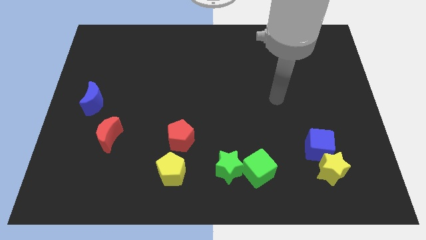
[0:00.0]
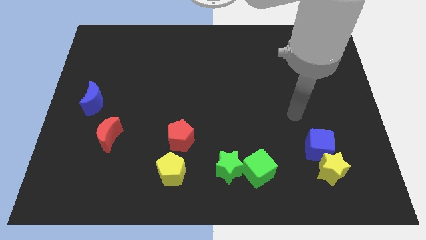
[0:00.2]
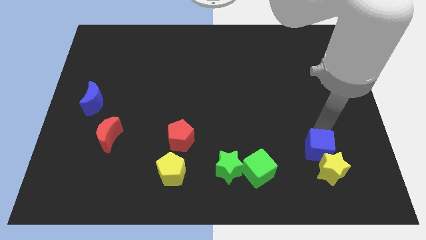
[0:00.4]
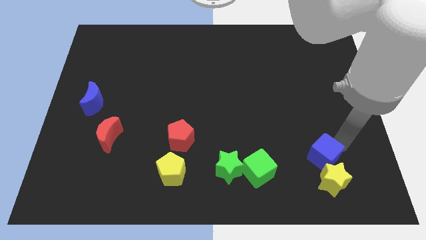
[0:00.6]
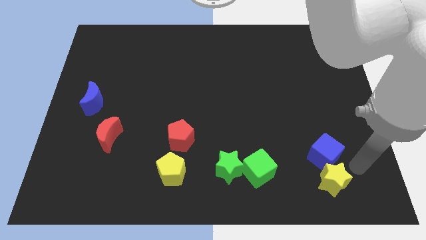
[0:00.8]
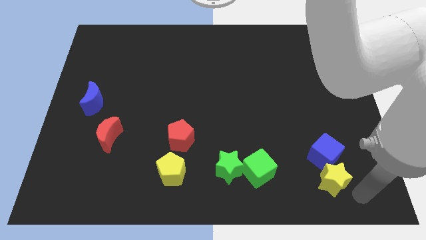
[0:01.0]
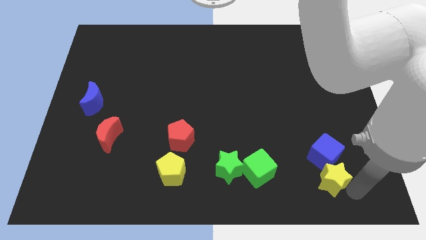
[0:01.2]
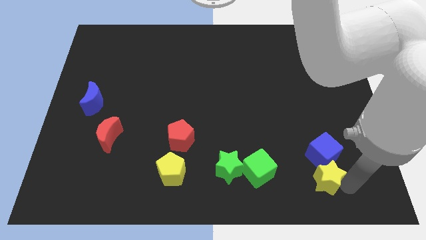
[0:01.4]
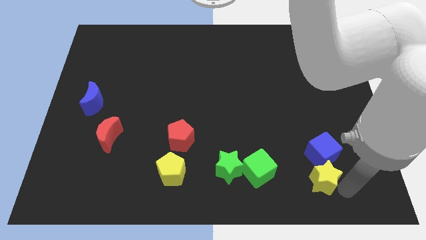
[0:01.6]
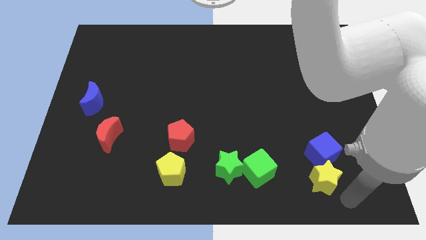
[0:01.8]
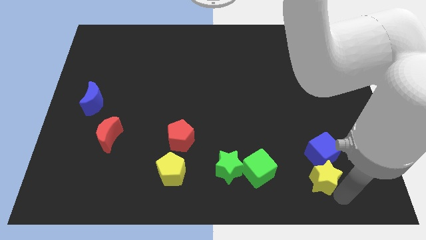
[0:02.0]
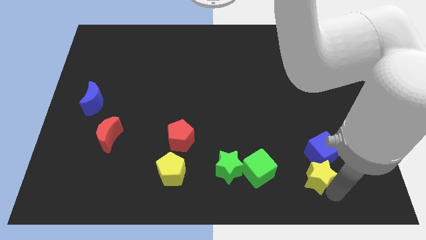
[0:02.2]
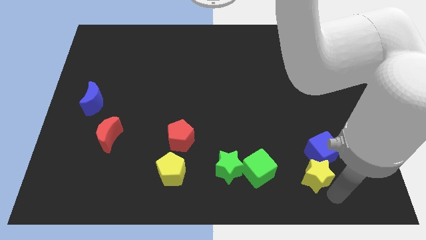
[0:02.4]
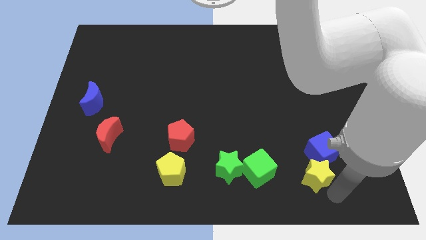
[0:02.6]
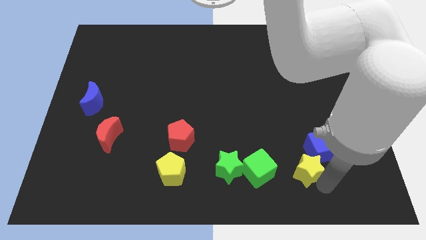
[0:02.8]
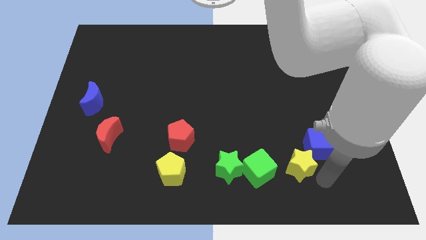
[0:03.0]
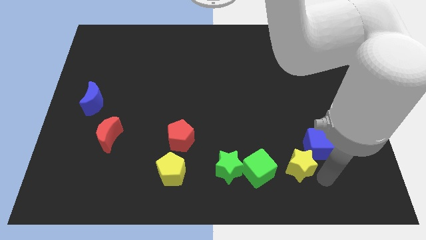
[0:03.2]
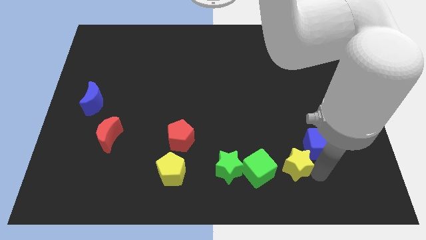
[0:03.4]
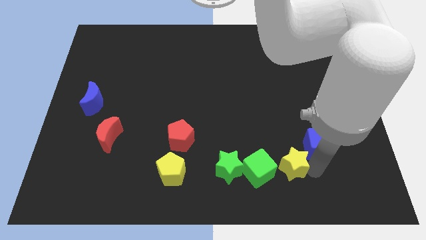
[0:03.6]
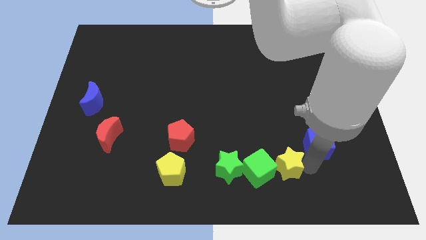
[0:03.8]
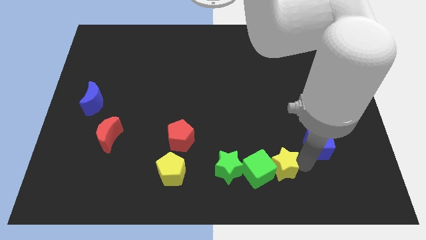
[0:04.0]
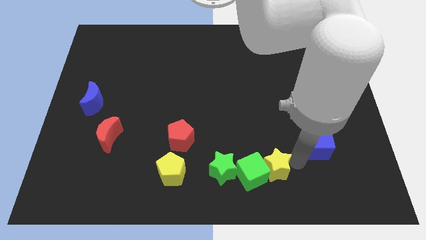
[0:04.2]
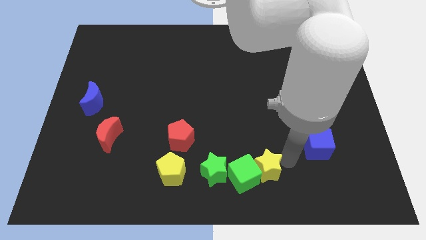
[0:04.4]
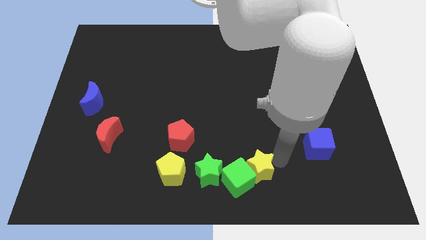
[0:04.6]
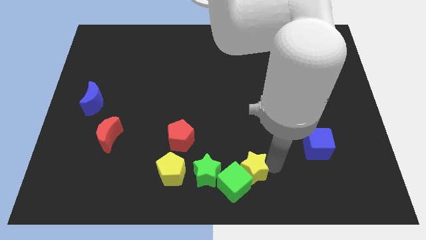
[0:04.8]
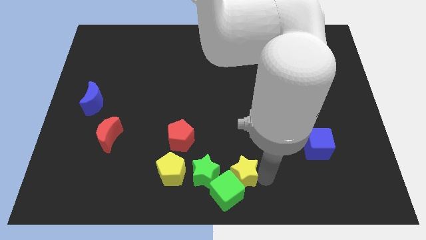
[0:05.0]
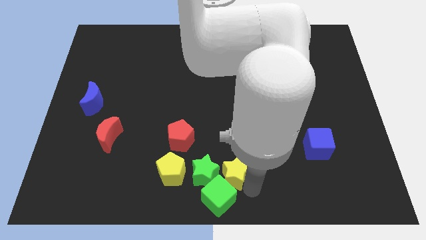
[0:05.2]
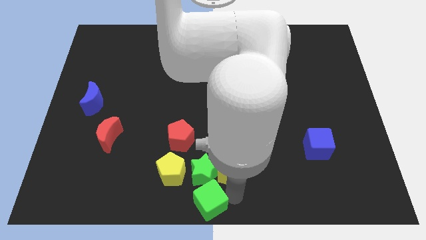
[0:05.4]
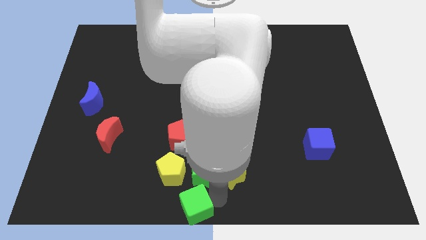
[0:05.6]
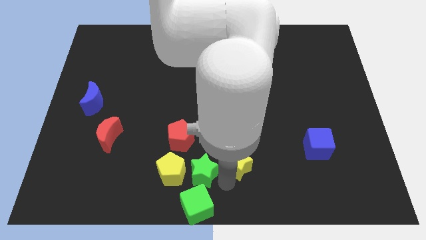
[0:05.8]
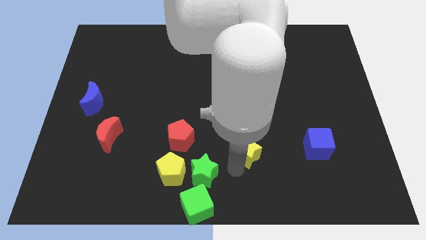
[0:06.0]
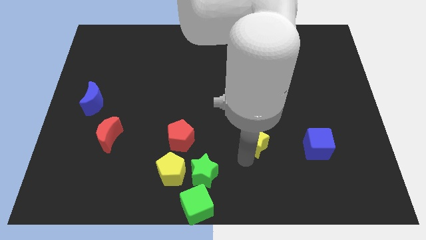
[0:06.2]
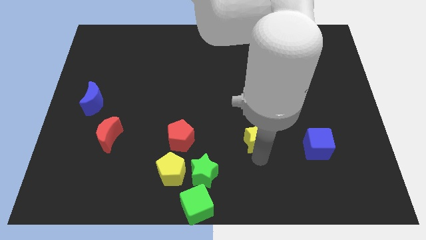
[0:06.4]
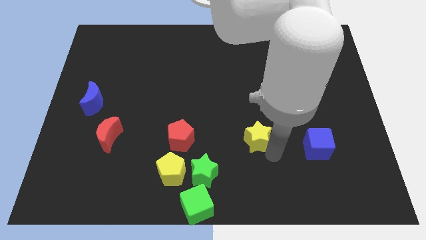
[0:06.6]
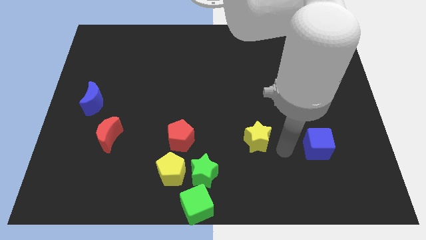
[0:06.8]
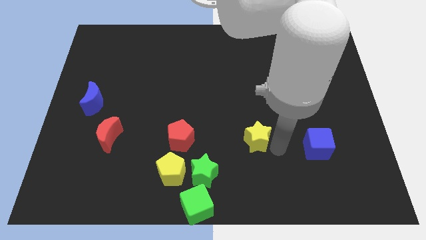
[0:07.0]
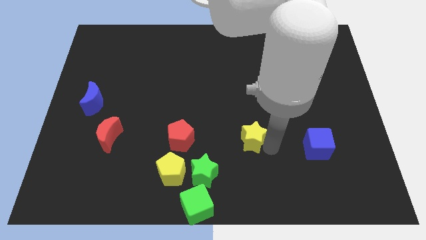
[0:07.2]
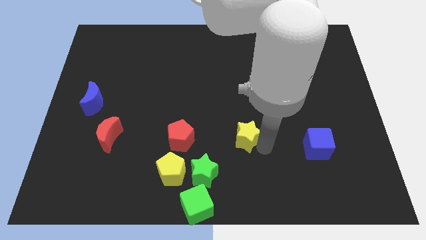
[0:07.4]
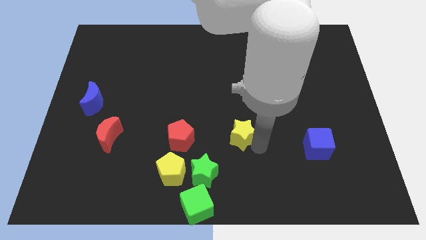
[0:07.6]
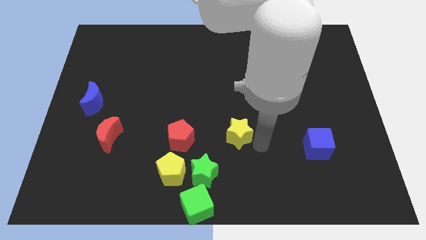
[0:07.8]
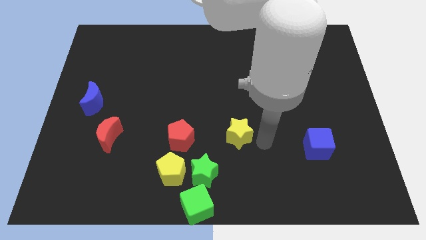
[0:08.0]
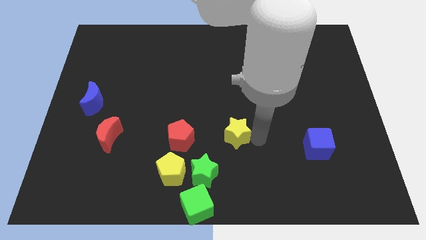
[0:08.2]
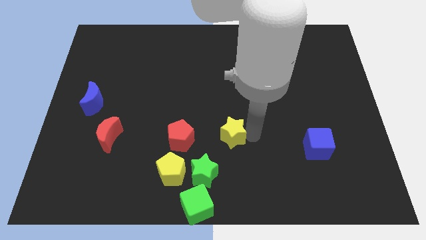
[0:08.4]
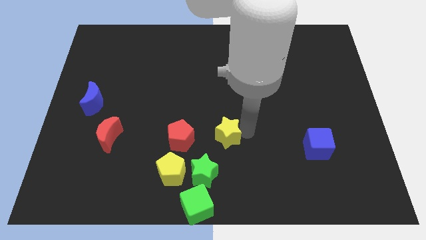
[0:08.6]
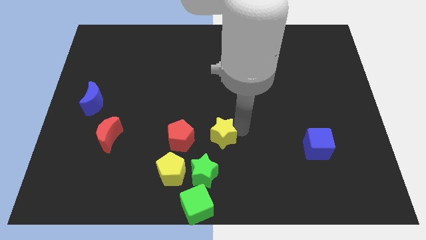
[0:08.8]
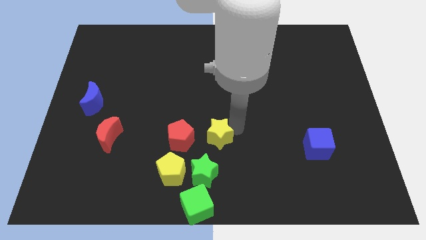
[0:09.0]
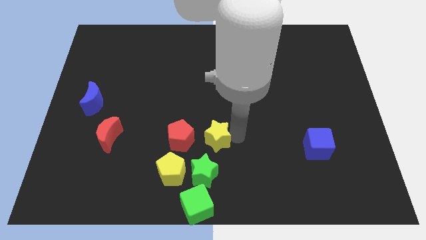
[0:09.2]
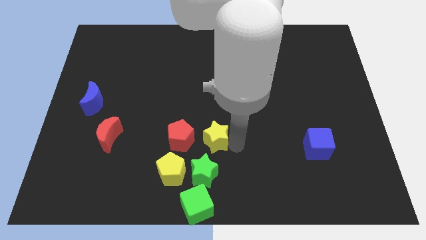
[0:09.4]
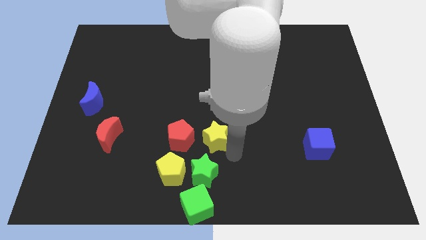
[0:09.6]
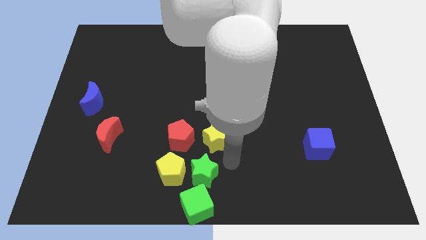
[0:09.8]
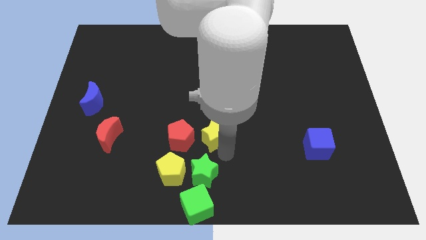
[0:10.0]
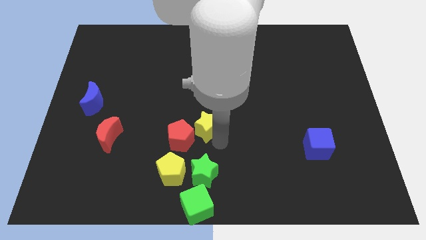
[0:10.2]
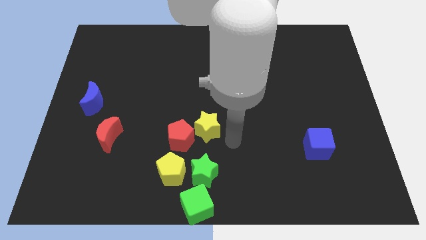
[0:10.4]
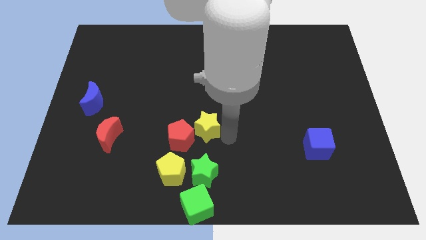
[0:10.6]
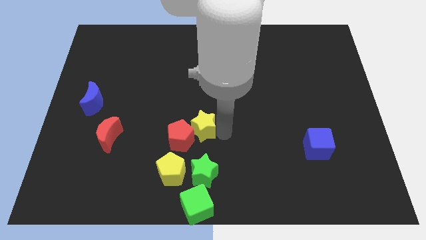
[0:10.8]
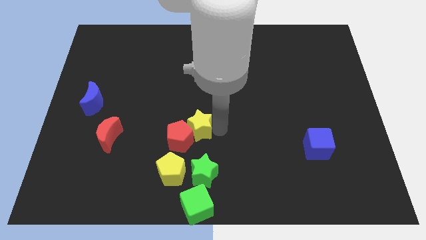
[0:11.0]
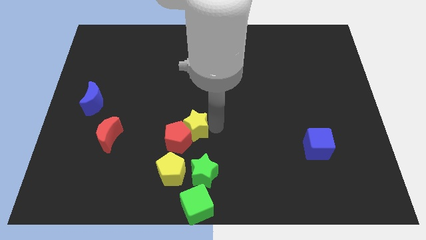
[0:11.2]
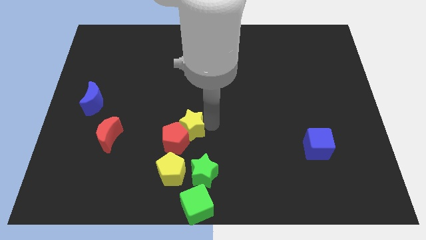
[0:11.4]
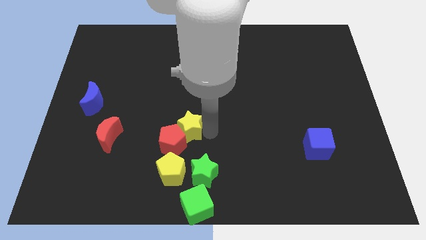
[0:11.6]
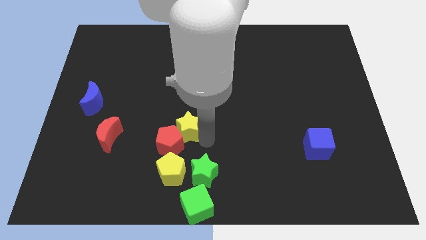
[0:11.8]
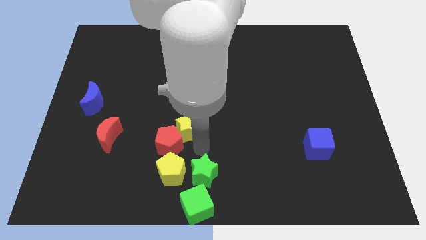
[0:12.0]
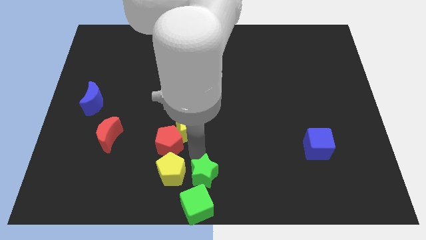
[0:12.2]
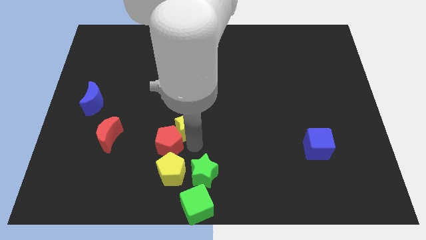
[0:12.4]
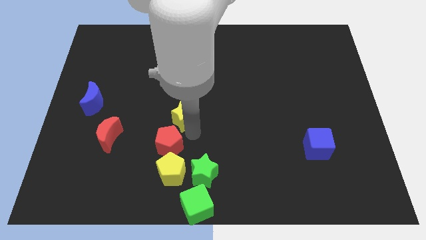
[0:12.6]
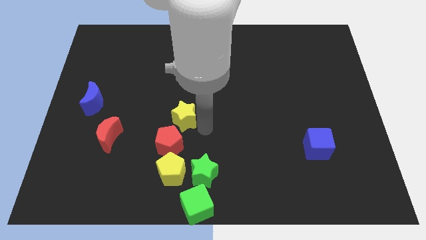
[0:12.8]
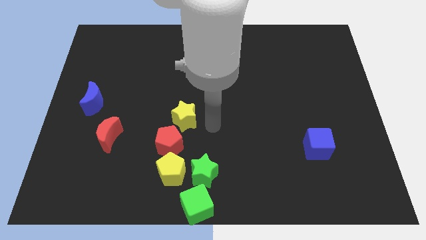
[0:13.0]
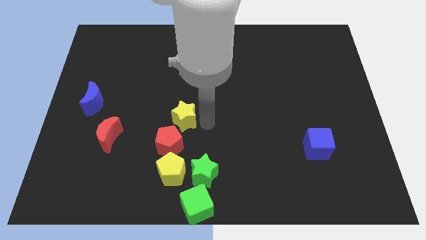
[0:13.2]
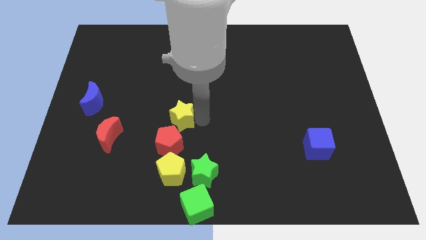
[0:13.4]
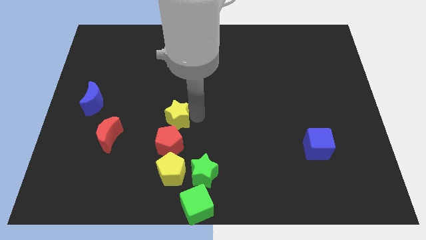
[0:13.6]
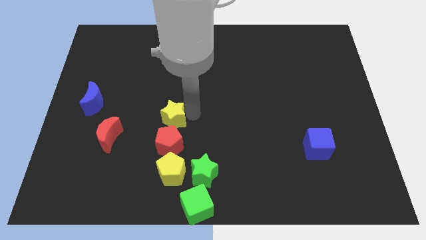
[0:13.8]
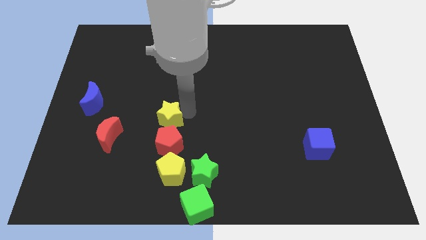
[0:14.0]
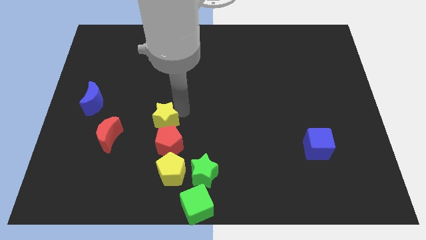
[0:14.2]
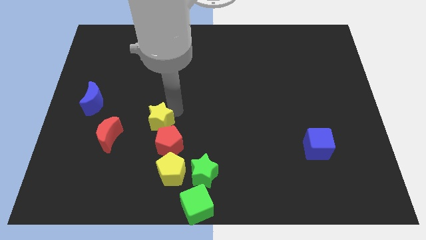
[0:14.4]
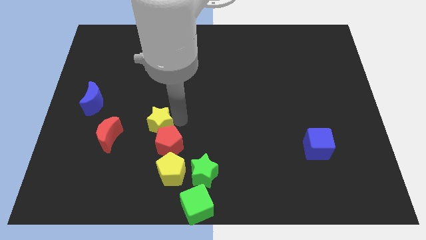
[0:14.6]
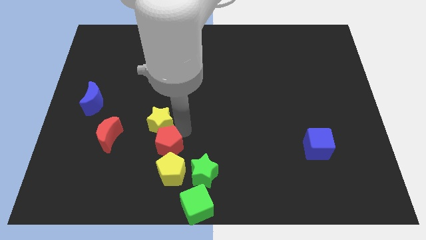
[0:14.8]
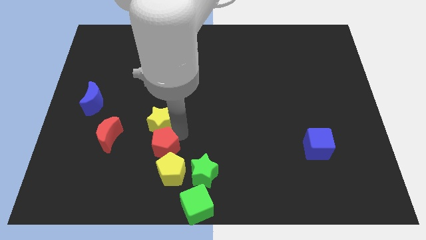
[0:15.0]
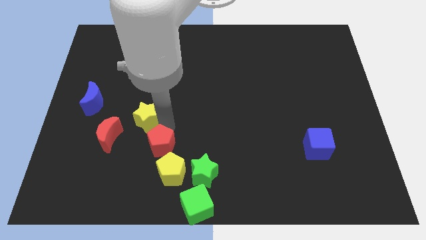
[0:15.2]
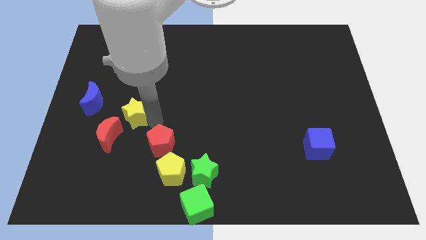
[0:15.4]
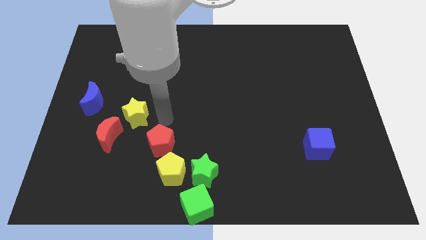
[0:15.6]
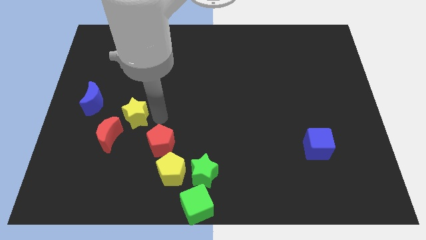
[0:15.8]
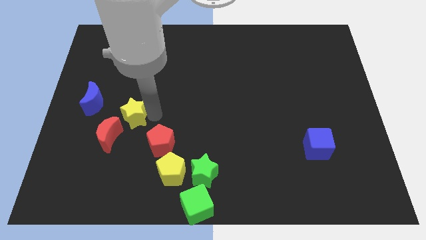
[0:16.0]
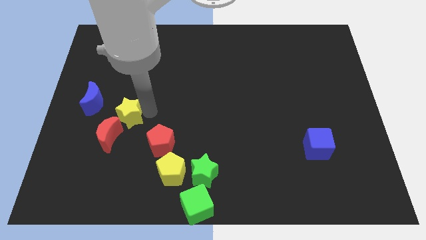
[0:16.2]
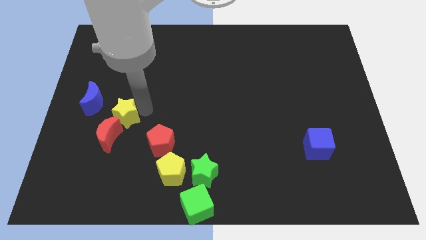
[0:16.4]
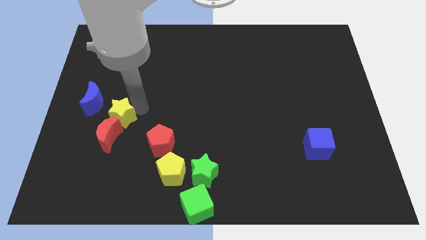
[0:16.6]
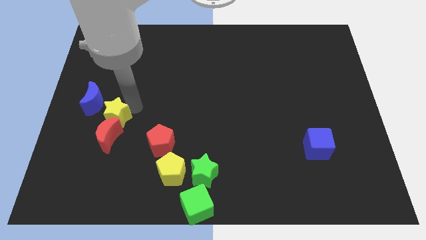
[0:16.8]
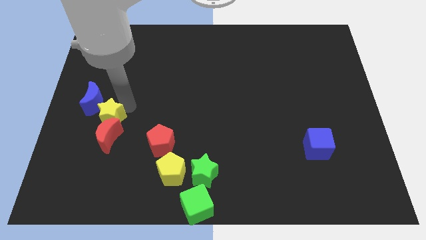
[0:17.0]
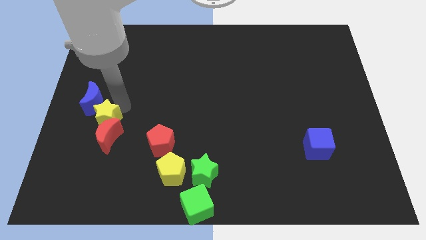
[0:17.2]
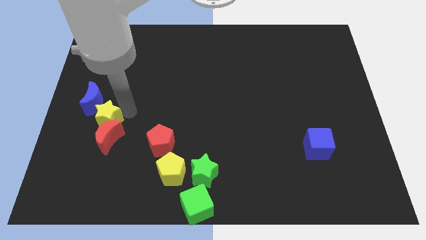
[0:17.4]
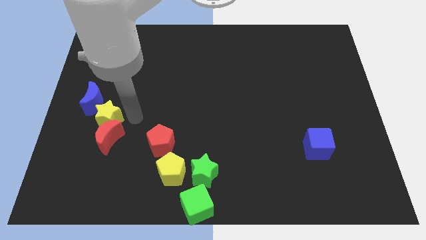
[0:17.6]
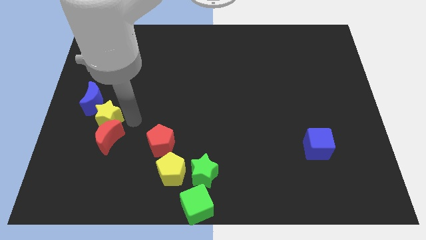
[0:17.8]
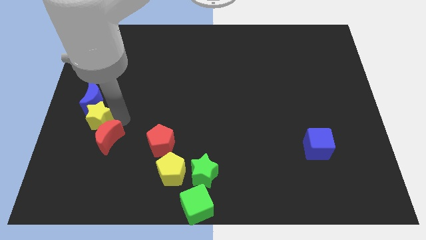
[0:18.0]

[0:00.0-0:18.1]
push the yellow star to the center left
